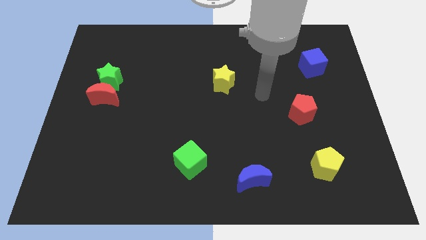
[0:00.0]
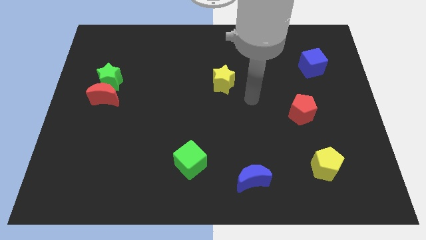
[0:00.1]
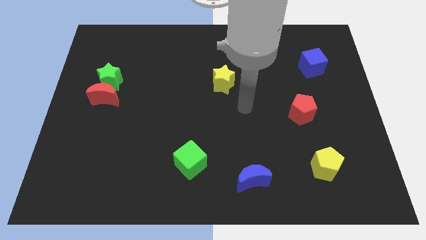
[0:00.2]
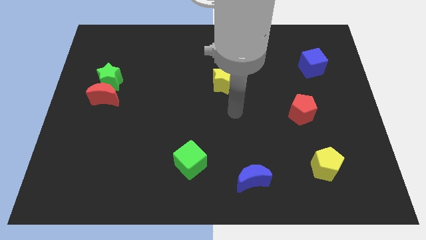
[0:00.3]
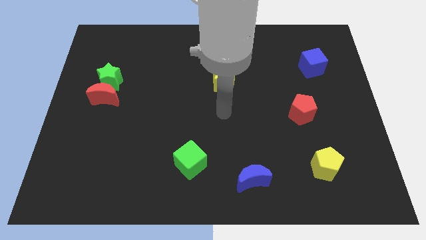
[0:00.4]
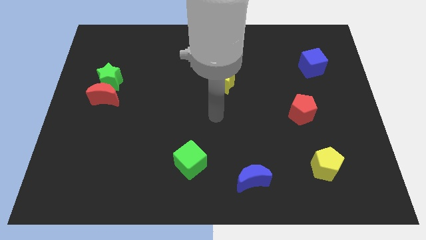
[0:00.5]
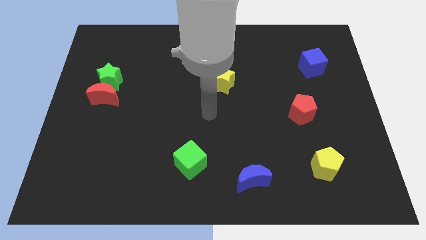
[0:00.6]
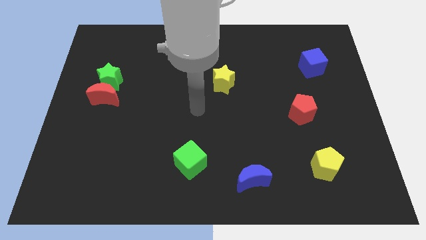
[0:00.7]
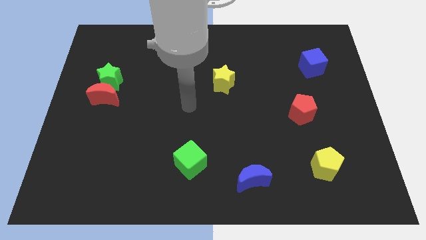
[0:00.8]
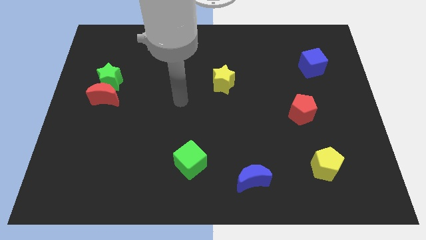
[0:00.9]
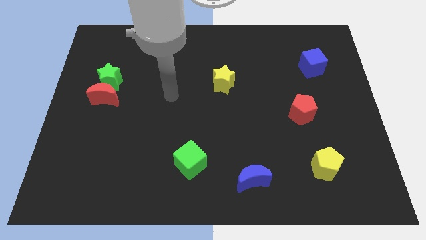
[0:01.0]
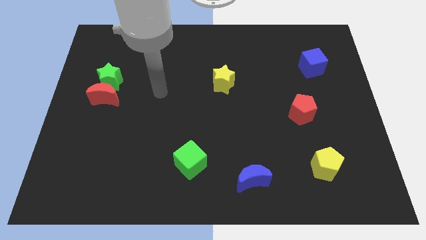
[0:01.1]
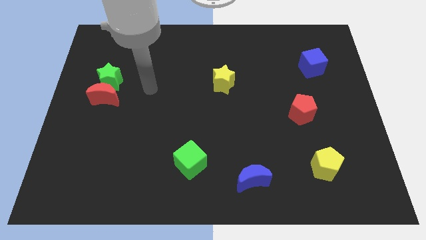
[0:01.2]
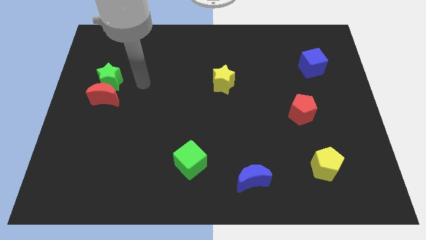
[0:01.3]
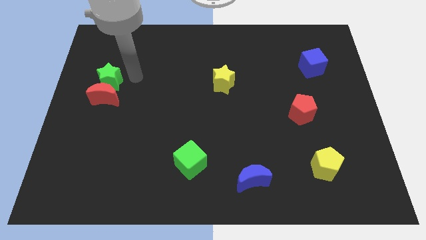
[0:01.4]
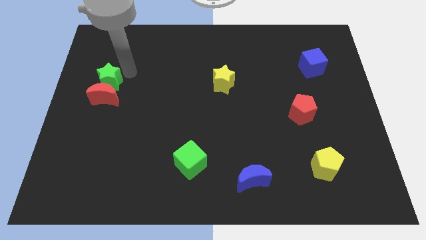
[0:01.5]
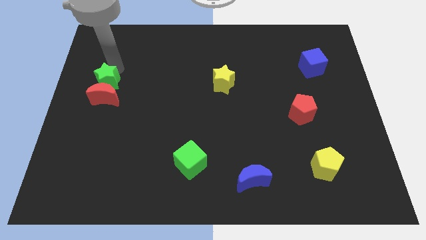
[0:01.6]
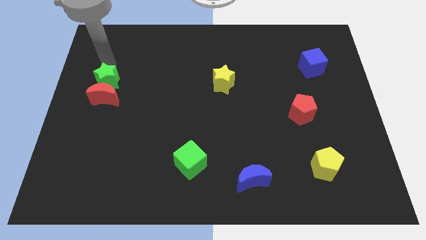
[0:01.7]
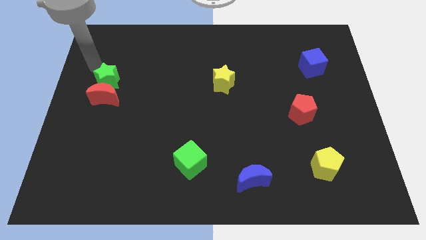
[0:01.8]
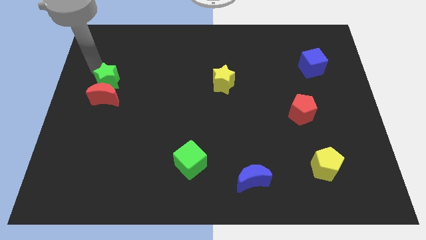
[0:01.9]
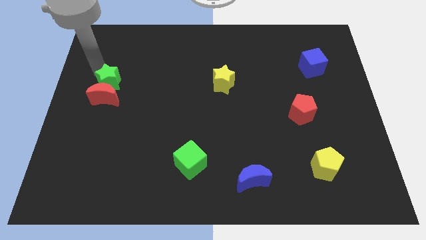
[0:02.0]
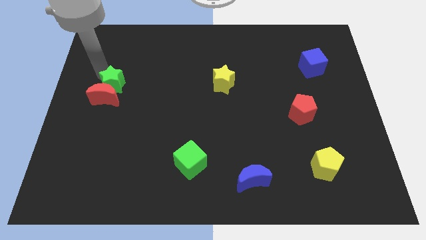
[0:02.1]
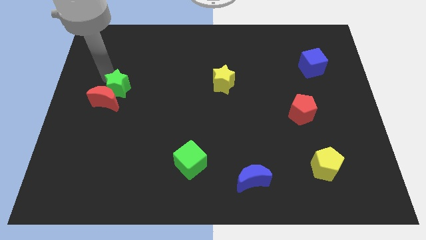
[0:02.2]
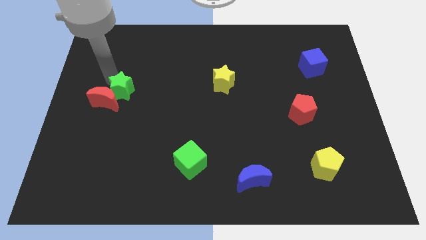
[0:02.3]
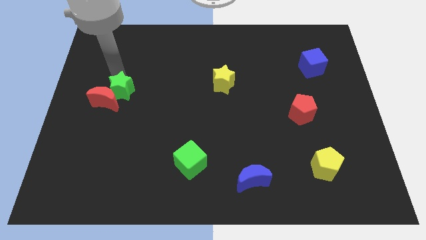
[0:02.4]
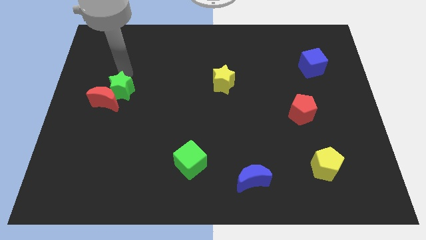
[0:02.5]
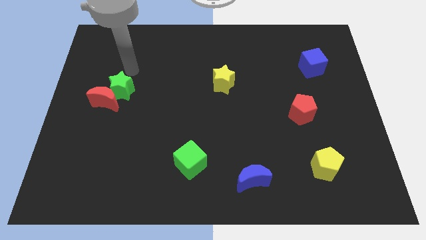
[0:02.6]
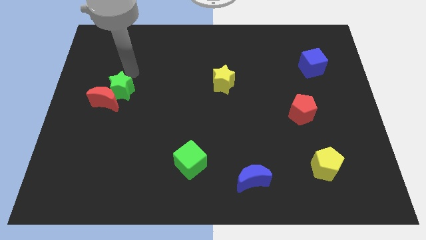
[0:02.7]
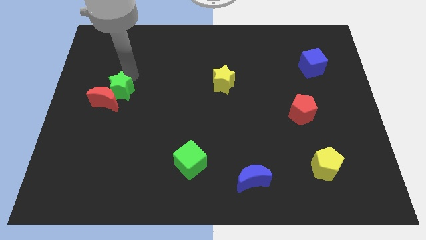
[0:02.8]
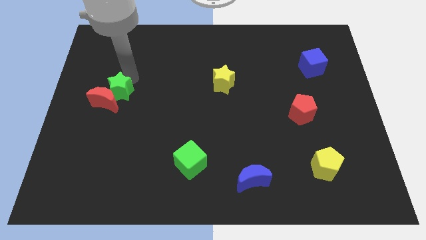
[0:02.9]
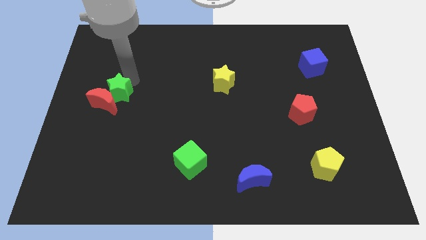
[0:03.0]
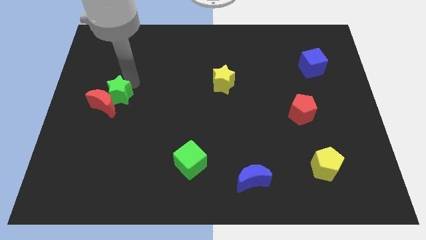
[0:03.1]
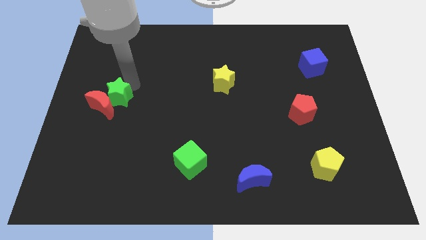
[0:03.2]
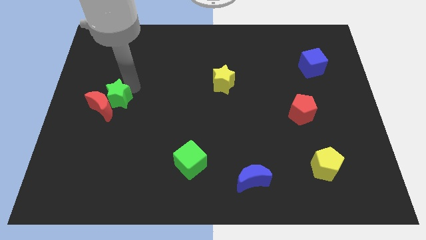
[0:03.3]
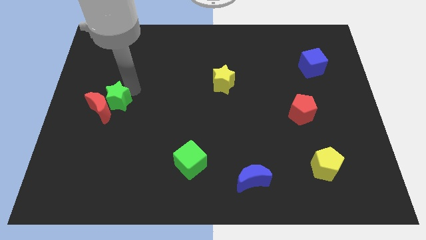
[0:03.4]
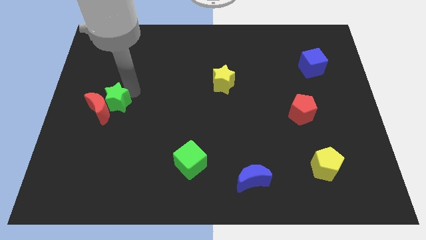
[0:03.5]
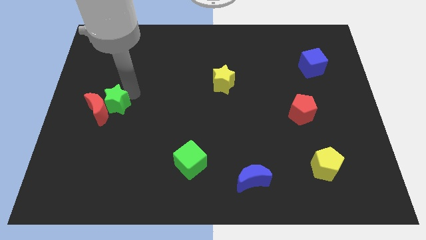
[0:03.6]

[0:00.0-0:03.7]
slightly slide the green star down

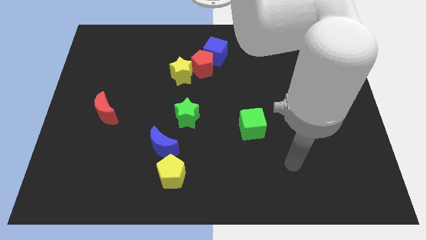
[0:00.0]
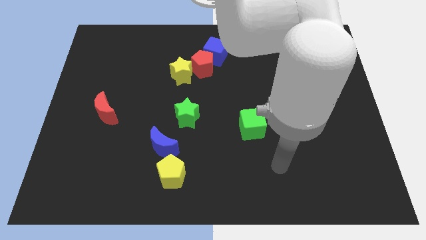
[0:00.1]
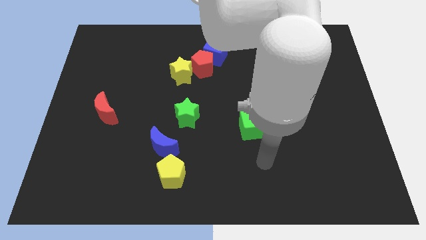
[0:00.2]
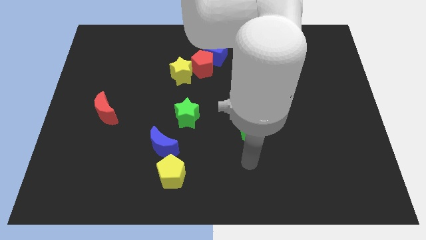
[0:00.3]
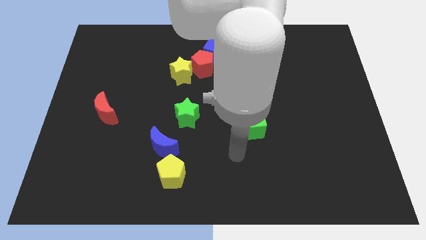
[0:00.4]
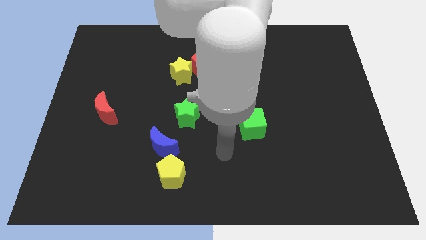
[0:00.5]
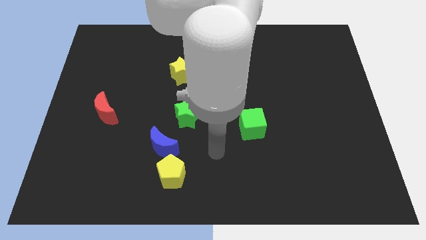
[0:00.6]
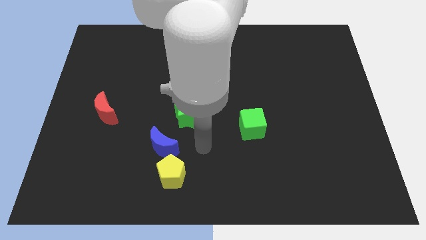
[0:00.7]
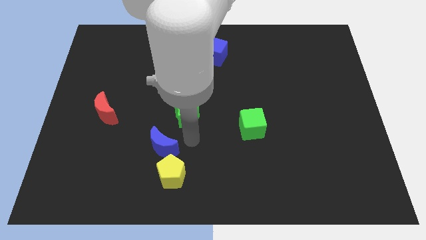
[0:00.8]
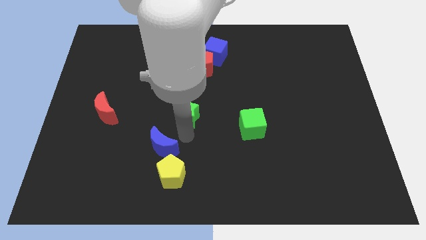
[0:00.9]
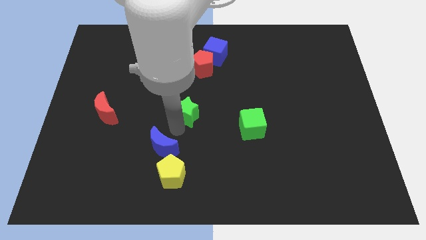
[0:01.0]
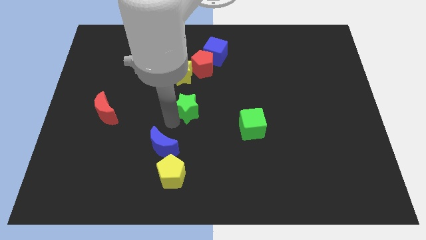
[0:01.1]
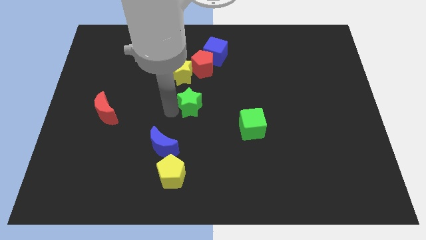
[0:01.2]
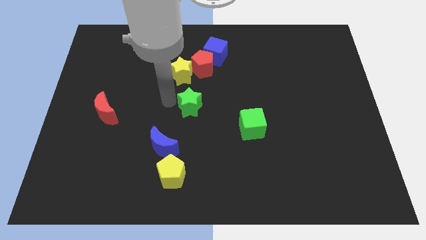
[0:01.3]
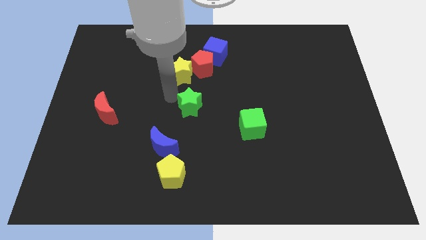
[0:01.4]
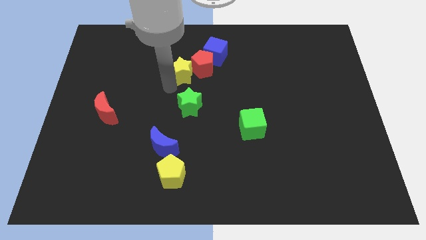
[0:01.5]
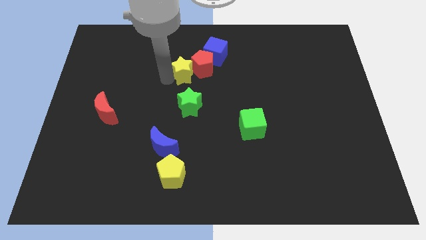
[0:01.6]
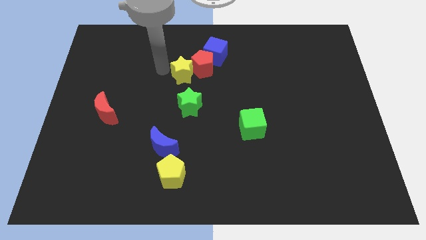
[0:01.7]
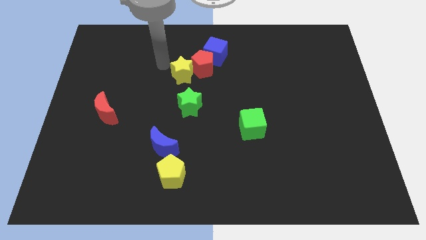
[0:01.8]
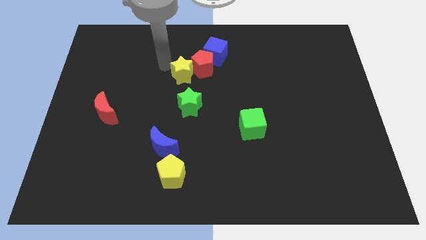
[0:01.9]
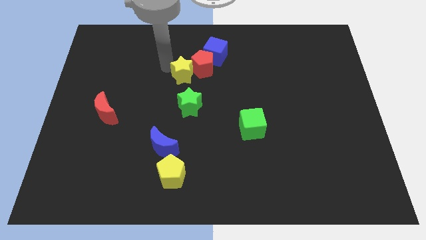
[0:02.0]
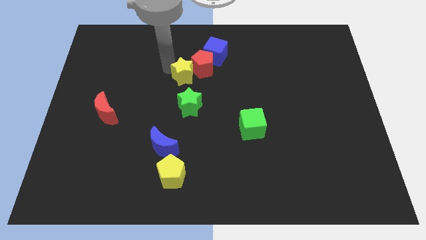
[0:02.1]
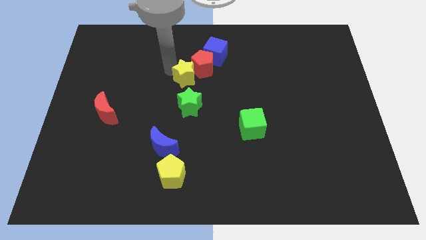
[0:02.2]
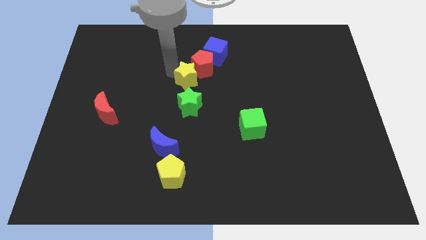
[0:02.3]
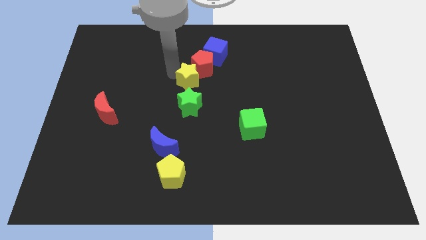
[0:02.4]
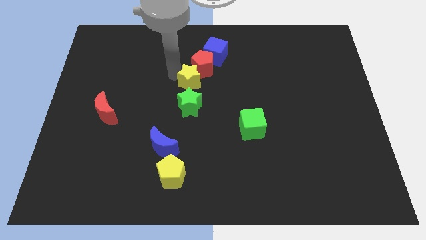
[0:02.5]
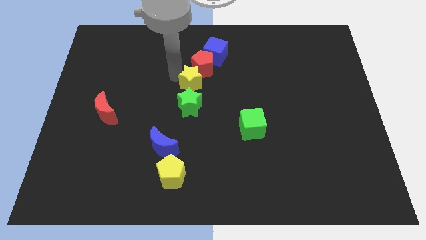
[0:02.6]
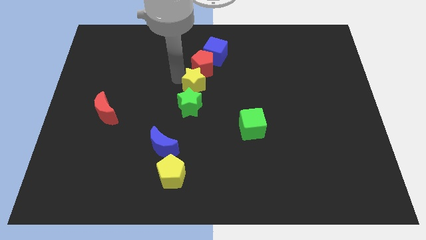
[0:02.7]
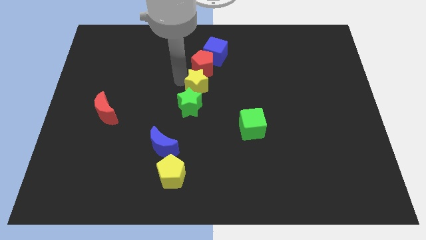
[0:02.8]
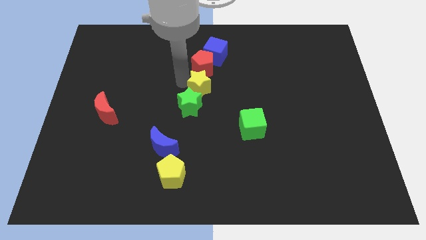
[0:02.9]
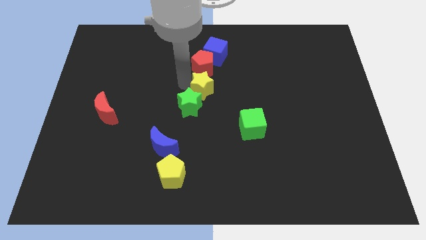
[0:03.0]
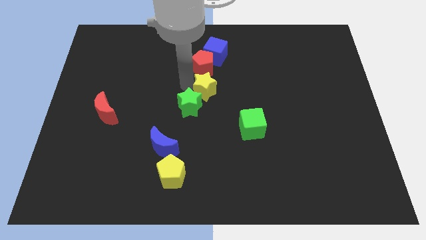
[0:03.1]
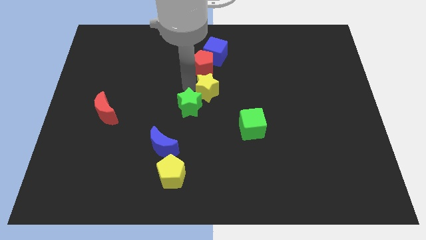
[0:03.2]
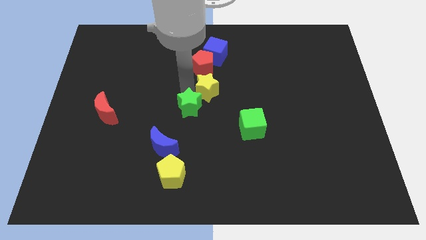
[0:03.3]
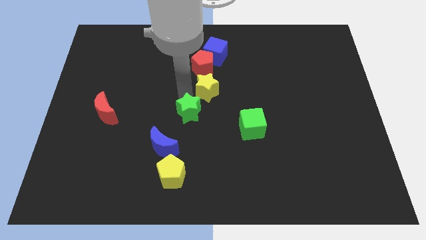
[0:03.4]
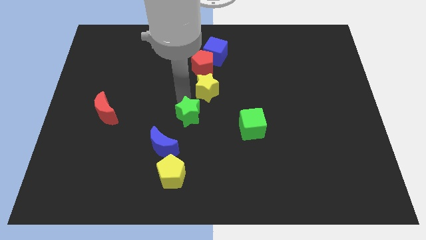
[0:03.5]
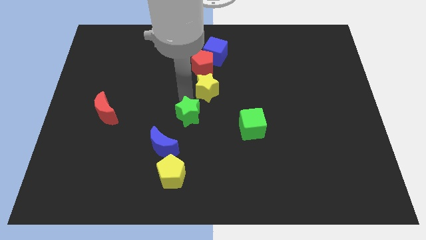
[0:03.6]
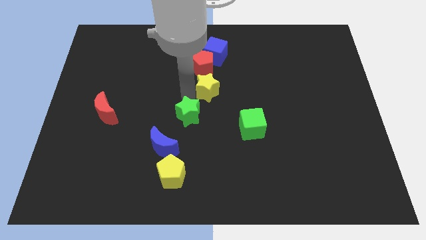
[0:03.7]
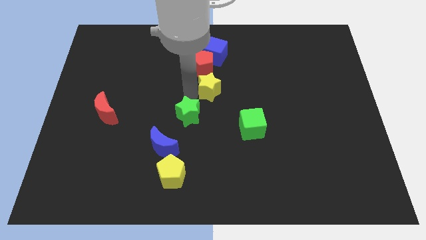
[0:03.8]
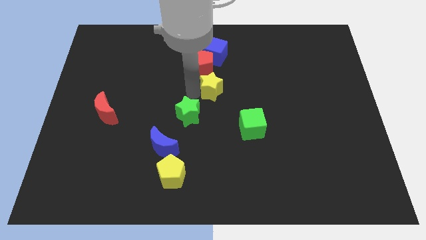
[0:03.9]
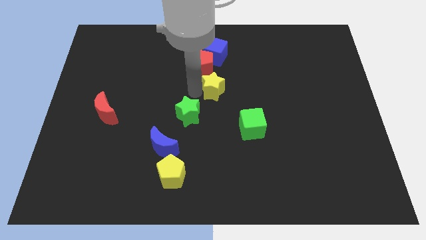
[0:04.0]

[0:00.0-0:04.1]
slightly push the yellow star to the right

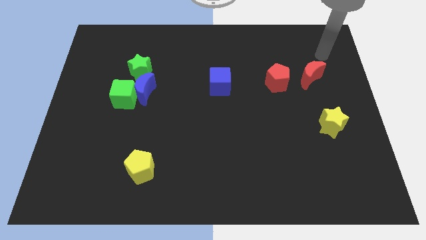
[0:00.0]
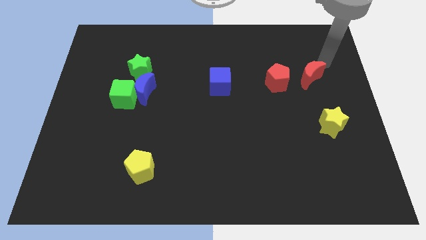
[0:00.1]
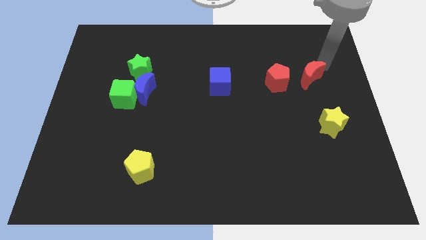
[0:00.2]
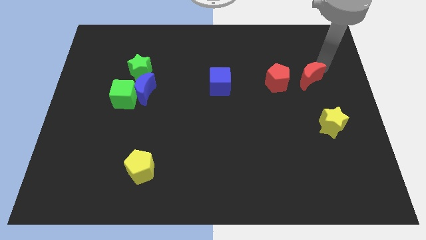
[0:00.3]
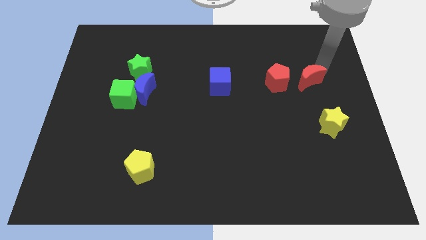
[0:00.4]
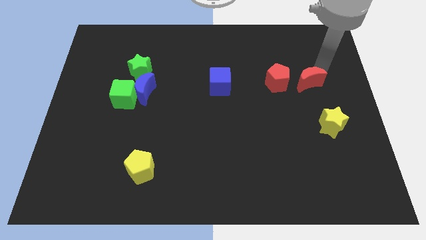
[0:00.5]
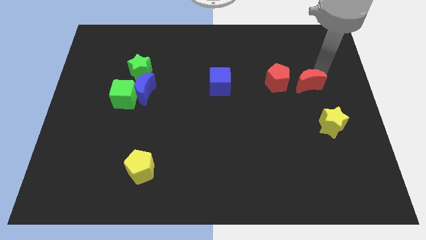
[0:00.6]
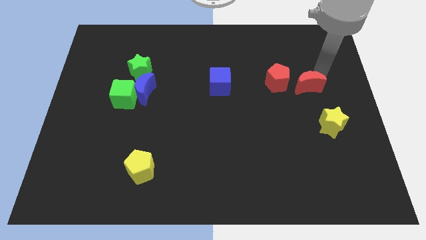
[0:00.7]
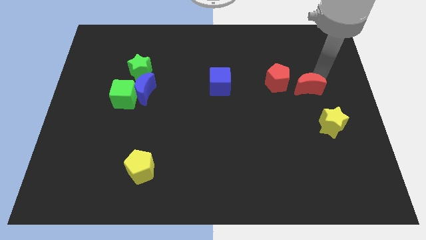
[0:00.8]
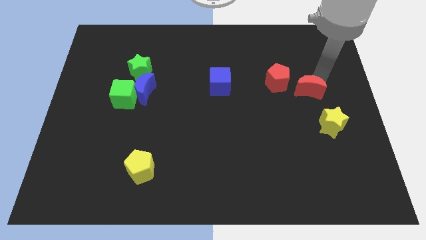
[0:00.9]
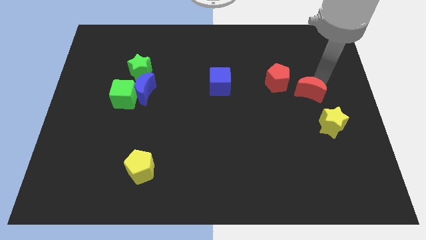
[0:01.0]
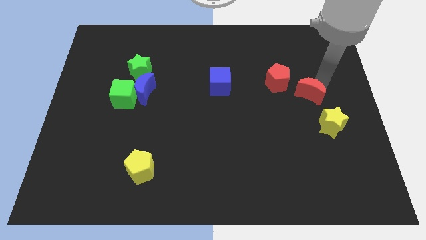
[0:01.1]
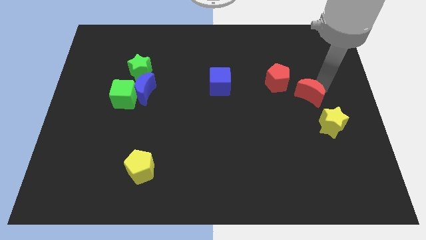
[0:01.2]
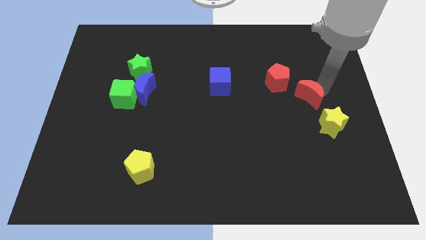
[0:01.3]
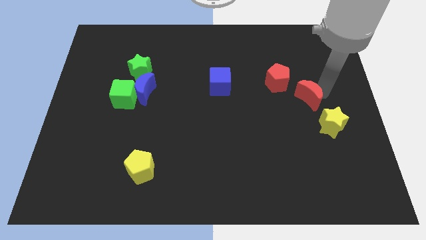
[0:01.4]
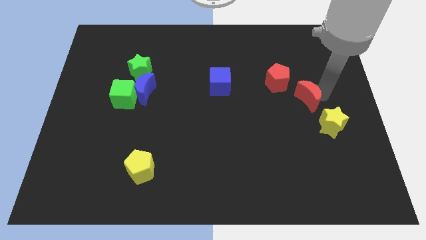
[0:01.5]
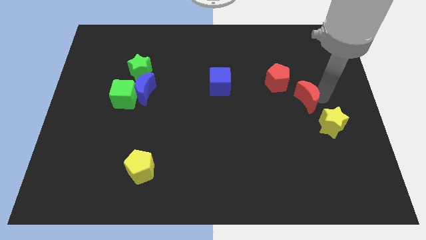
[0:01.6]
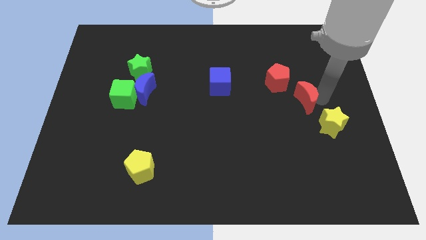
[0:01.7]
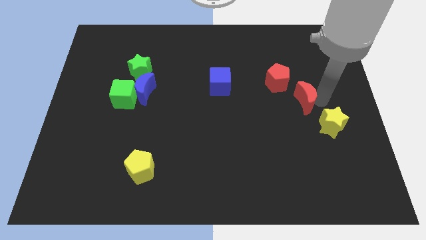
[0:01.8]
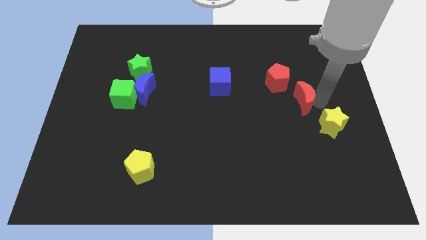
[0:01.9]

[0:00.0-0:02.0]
slightly push the red moon down and then left
